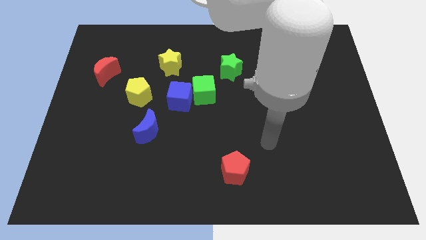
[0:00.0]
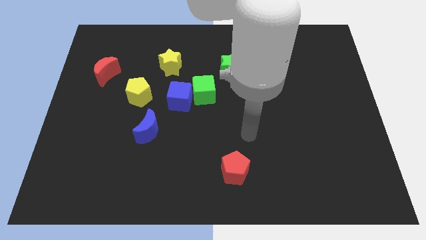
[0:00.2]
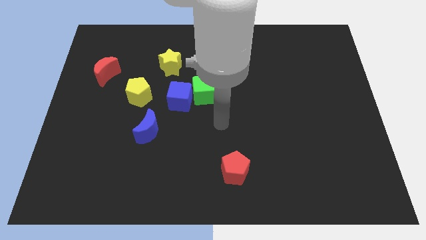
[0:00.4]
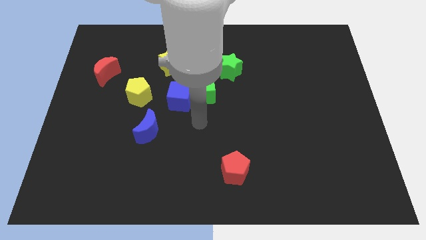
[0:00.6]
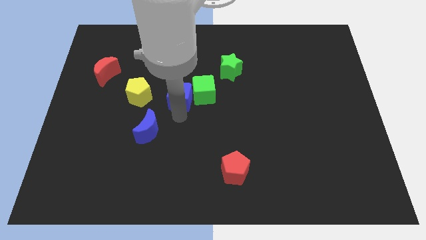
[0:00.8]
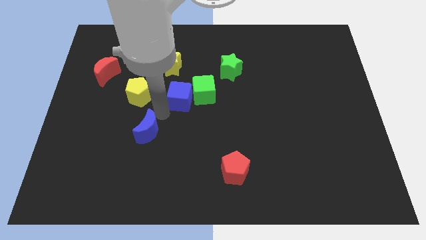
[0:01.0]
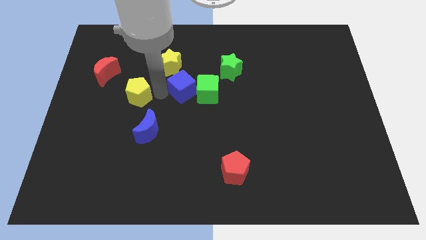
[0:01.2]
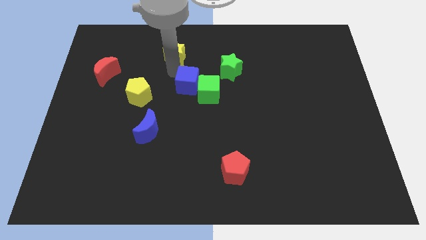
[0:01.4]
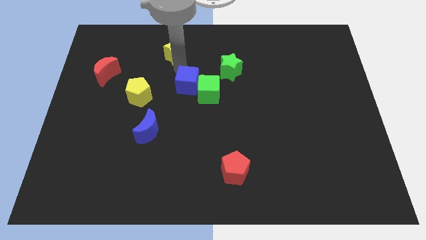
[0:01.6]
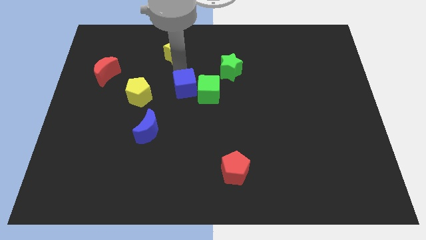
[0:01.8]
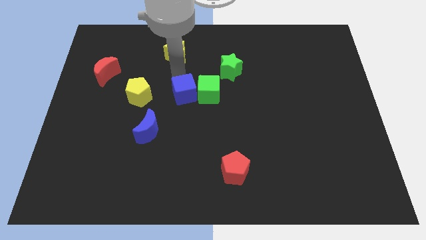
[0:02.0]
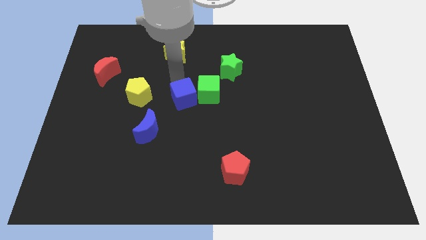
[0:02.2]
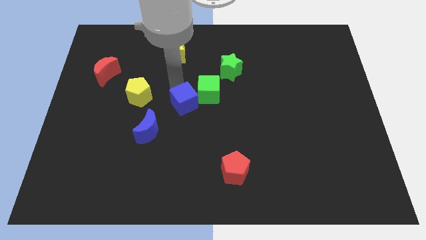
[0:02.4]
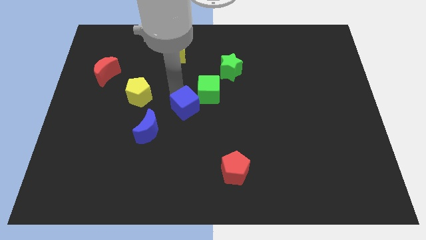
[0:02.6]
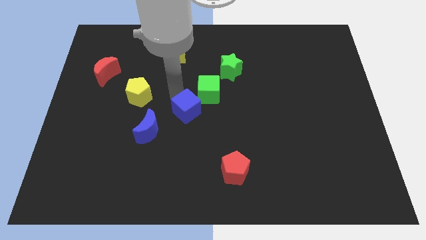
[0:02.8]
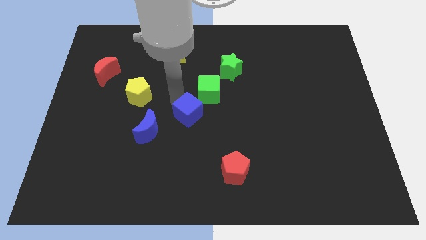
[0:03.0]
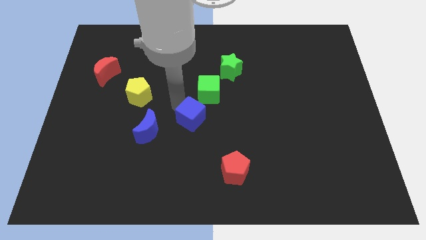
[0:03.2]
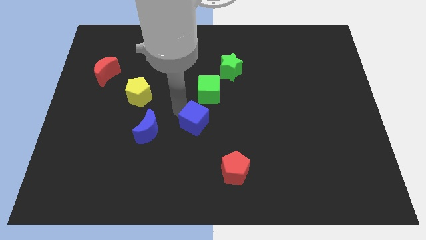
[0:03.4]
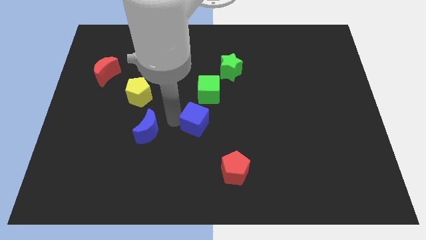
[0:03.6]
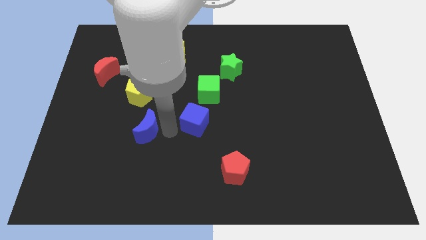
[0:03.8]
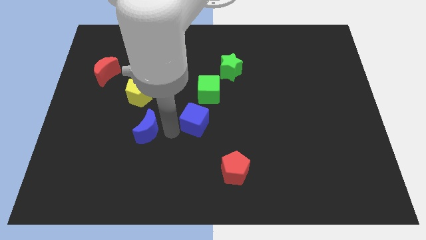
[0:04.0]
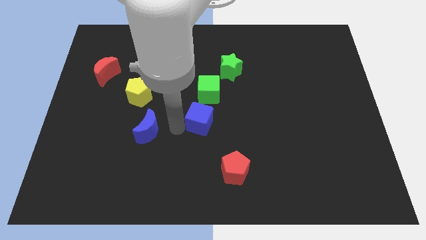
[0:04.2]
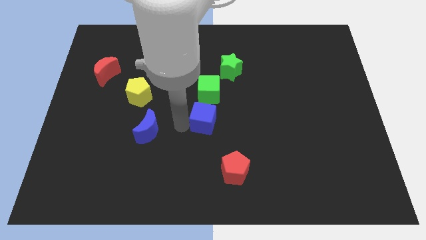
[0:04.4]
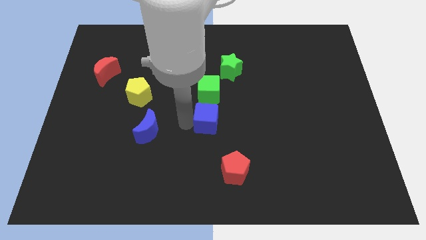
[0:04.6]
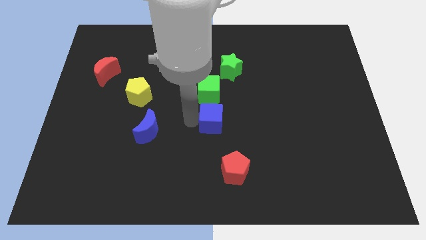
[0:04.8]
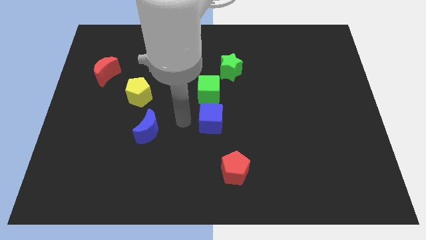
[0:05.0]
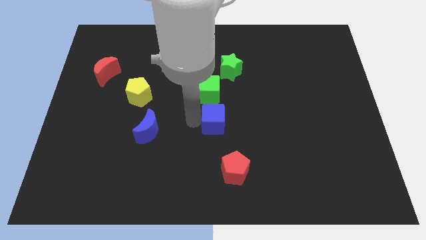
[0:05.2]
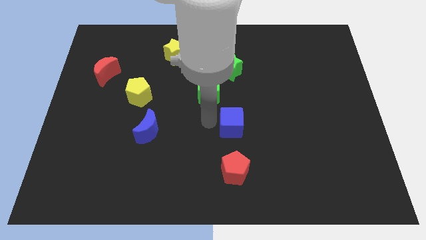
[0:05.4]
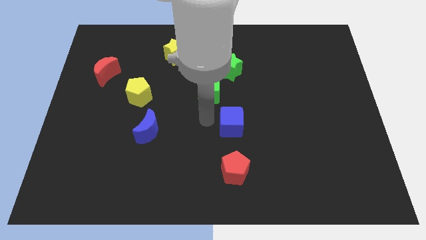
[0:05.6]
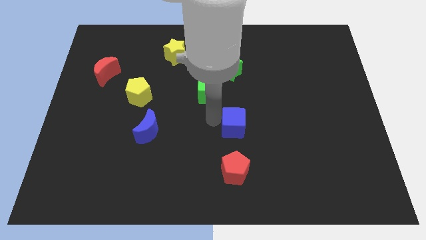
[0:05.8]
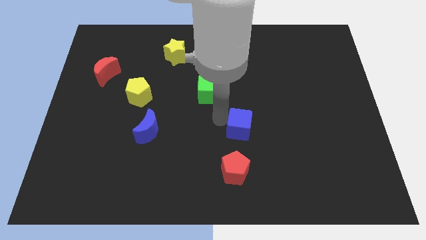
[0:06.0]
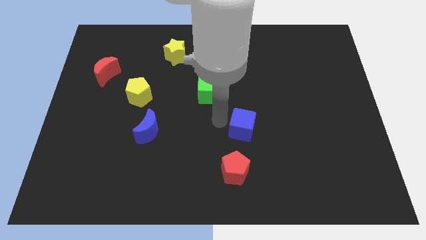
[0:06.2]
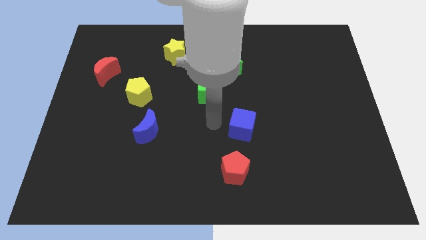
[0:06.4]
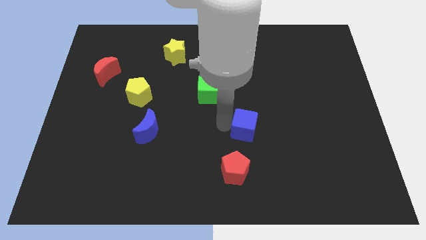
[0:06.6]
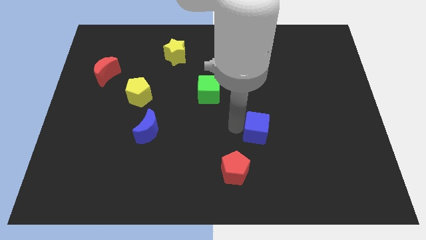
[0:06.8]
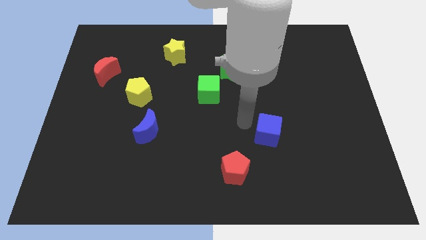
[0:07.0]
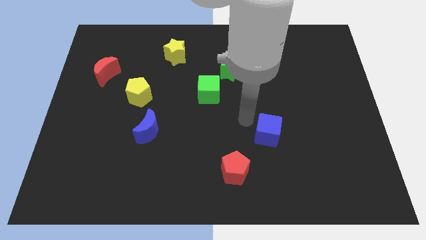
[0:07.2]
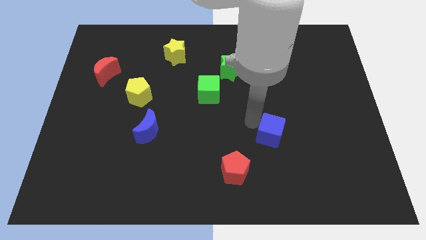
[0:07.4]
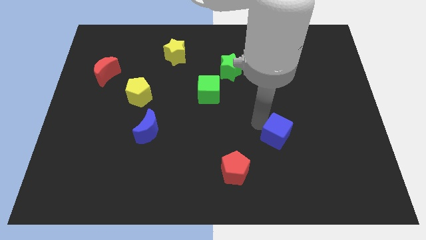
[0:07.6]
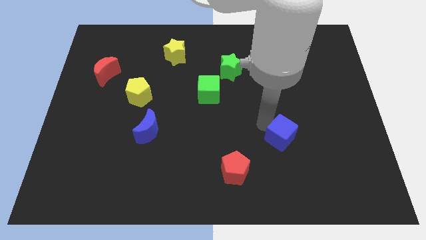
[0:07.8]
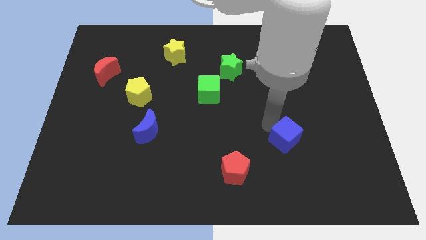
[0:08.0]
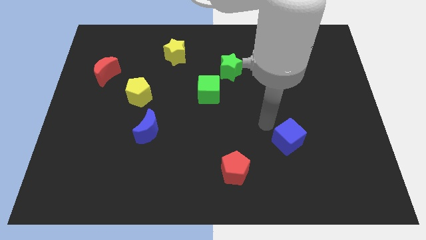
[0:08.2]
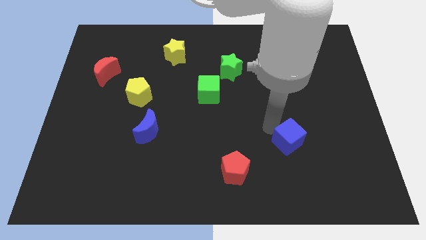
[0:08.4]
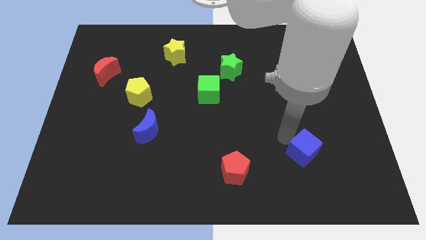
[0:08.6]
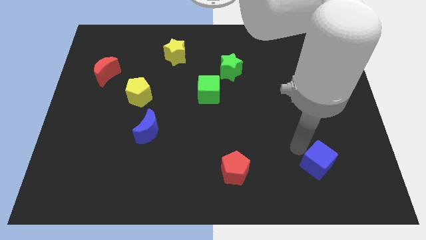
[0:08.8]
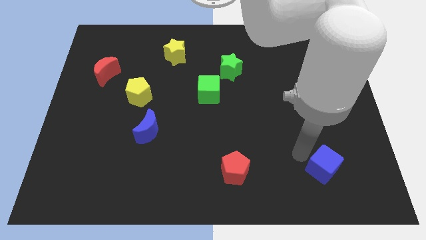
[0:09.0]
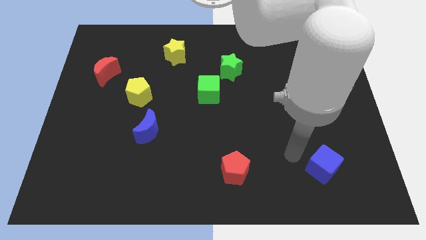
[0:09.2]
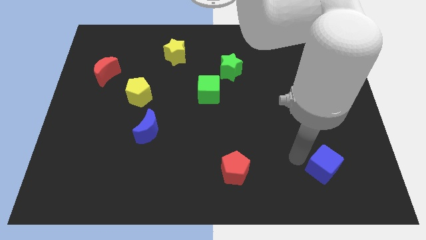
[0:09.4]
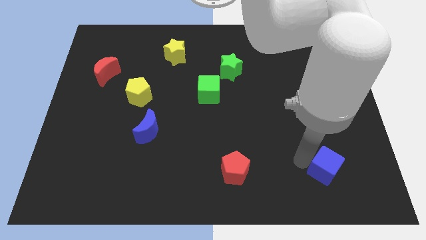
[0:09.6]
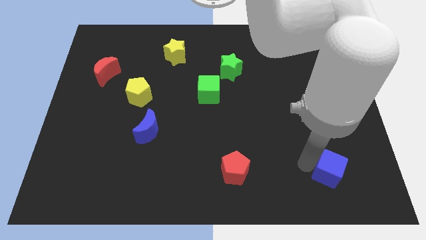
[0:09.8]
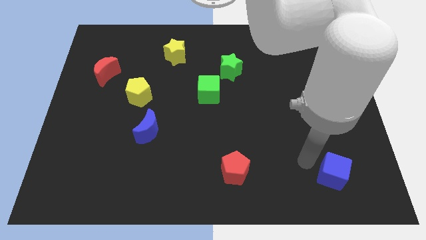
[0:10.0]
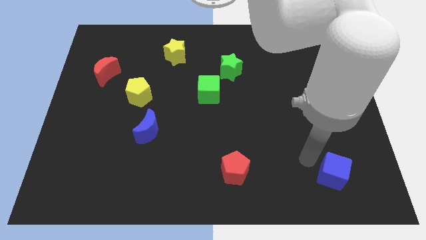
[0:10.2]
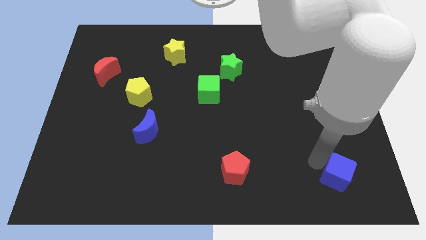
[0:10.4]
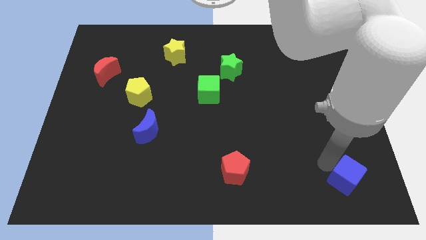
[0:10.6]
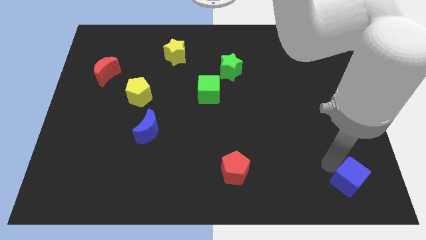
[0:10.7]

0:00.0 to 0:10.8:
move the blue cube to the bottom right corner

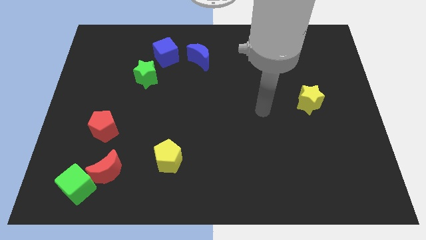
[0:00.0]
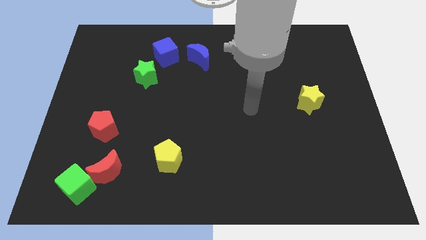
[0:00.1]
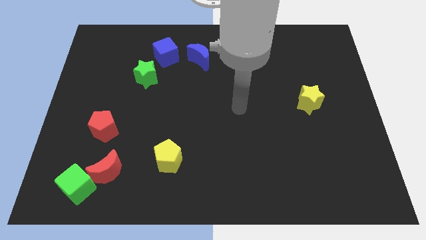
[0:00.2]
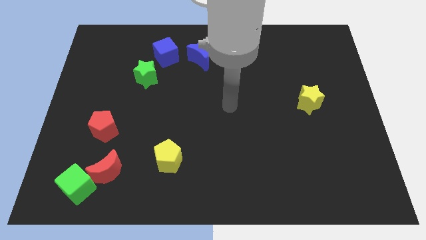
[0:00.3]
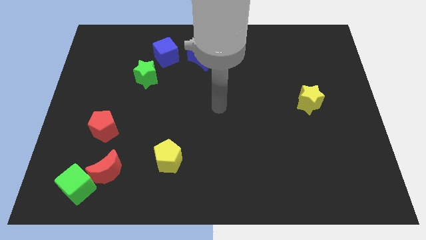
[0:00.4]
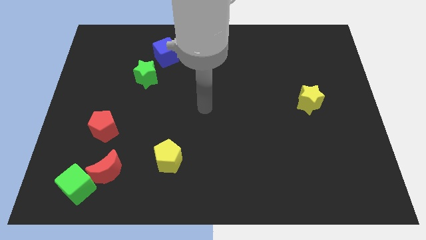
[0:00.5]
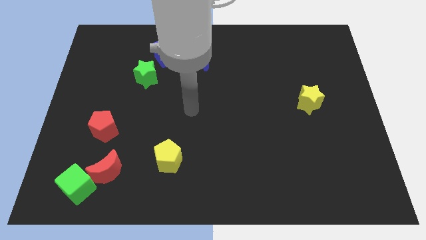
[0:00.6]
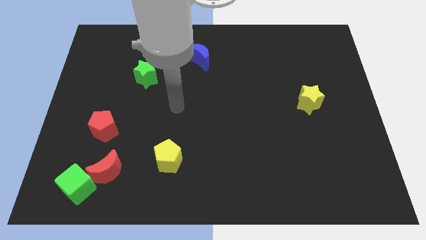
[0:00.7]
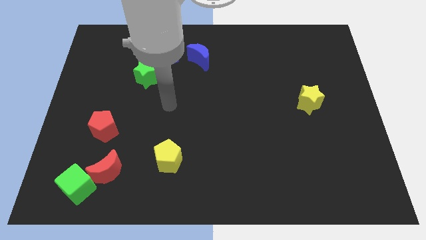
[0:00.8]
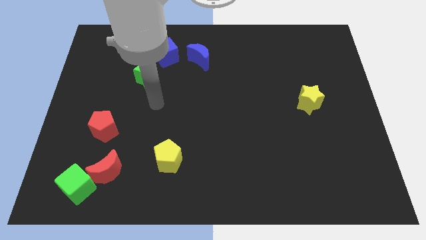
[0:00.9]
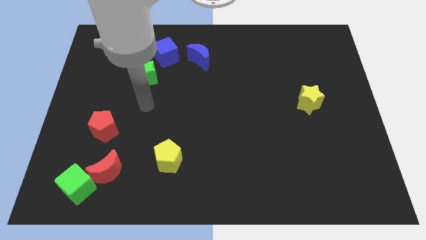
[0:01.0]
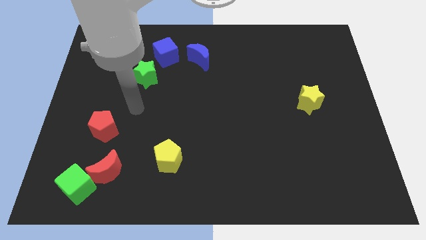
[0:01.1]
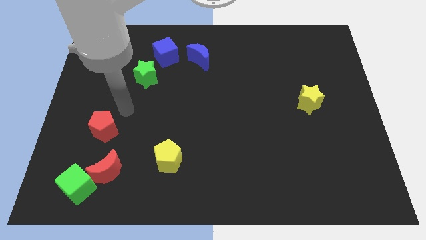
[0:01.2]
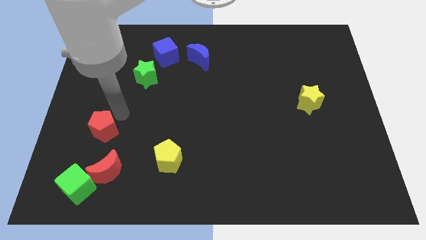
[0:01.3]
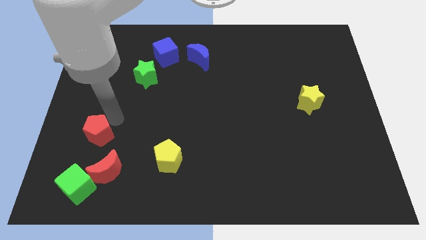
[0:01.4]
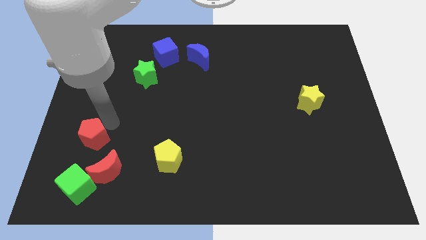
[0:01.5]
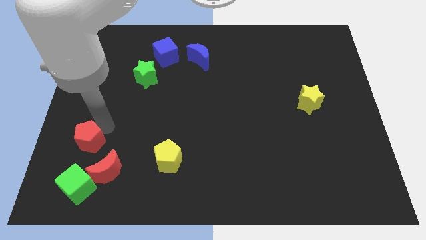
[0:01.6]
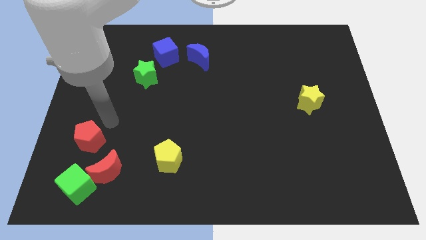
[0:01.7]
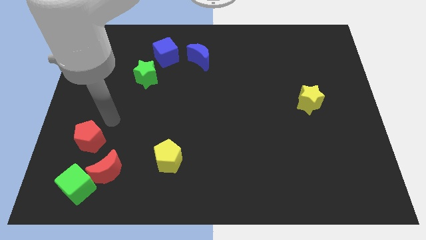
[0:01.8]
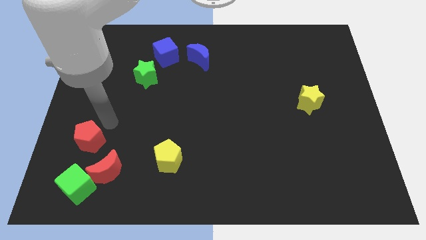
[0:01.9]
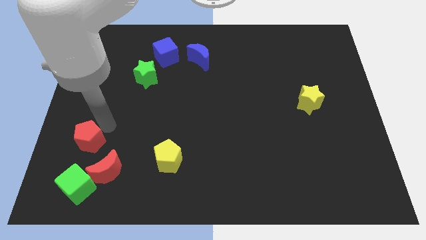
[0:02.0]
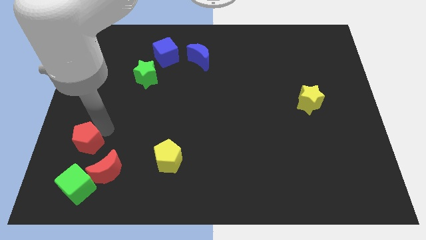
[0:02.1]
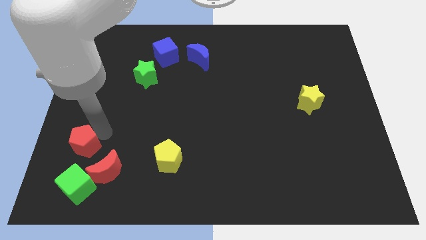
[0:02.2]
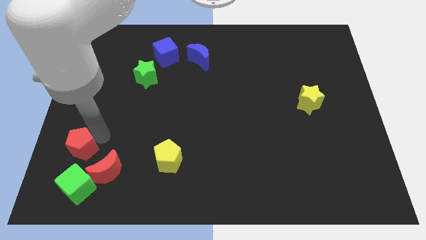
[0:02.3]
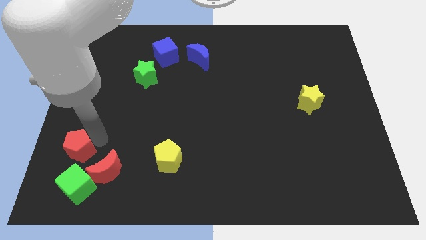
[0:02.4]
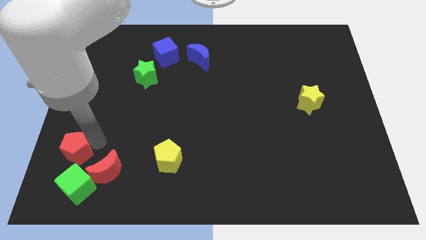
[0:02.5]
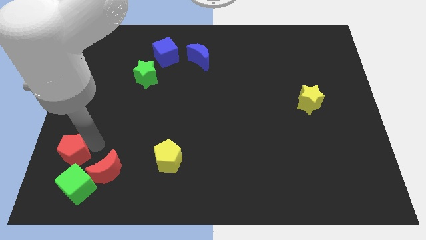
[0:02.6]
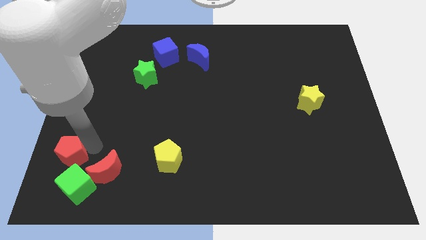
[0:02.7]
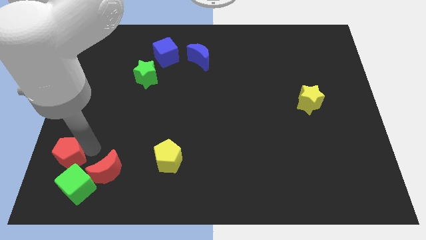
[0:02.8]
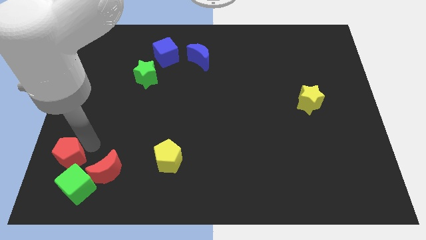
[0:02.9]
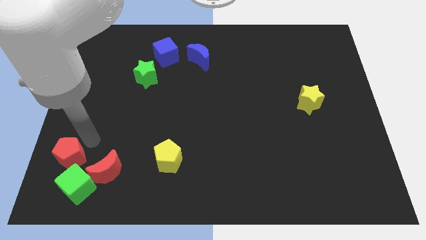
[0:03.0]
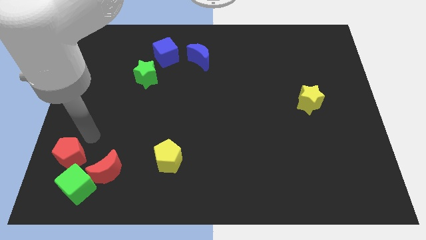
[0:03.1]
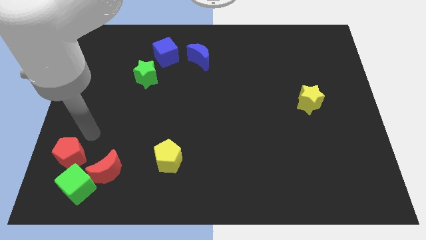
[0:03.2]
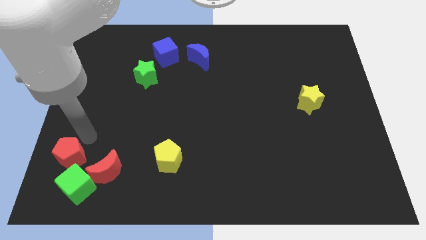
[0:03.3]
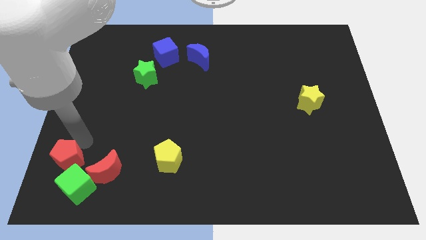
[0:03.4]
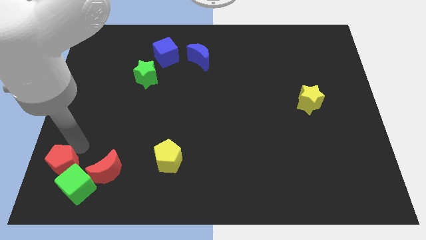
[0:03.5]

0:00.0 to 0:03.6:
push the red pentagon to the bottom left of the board
